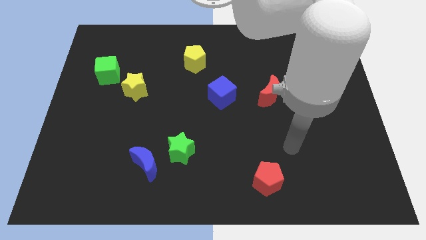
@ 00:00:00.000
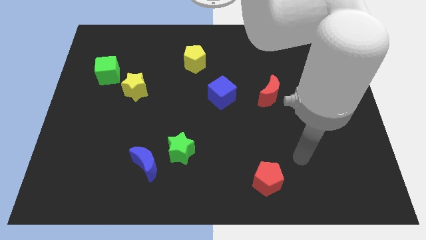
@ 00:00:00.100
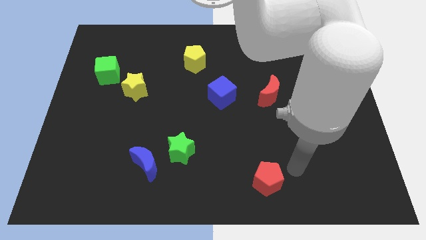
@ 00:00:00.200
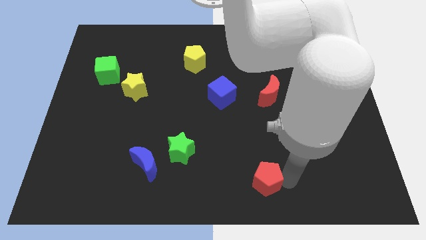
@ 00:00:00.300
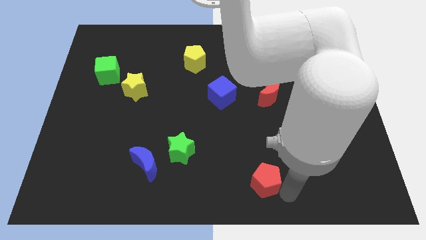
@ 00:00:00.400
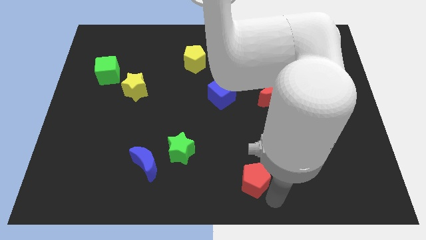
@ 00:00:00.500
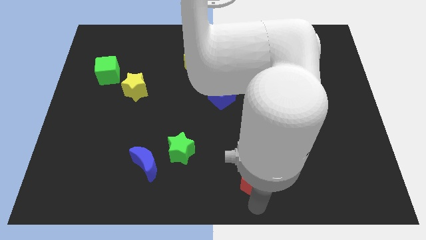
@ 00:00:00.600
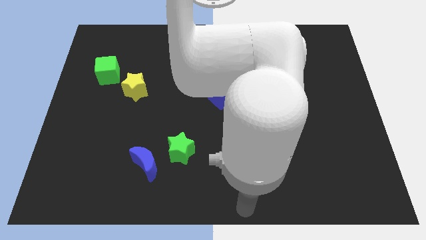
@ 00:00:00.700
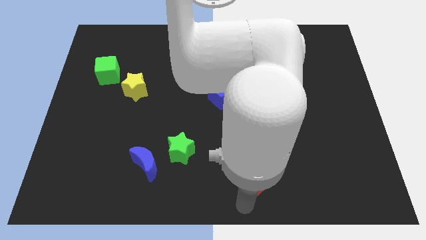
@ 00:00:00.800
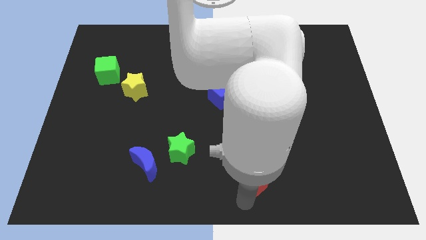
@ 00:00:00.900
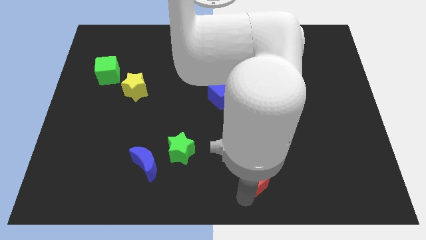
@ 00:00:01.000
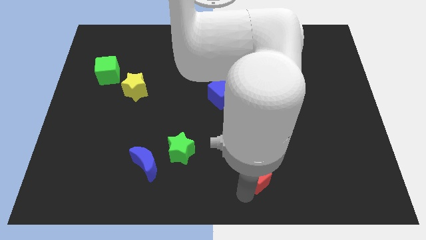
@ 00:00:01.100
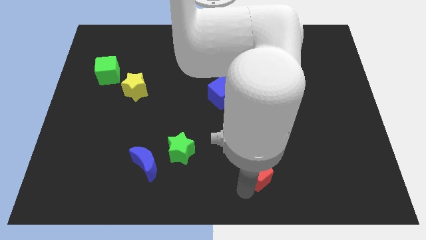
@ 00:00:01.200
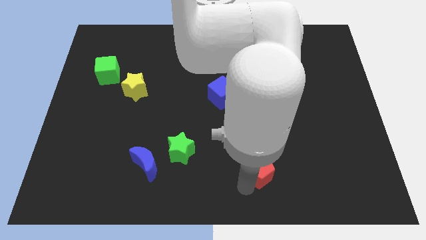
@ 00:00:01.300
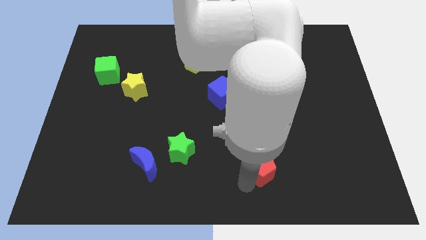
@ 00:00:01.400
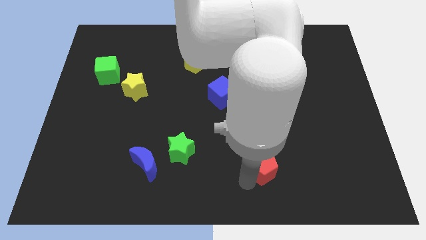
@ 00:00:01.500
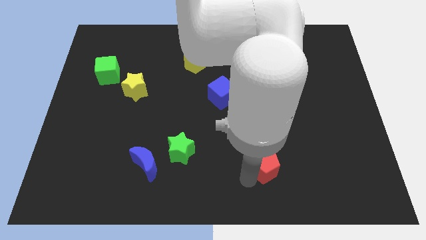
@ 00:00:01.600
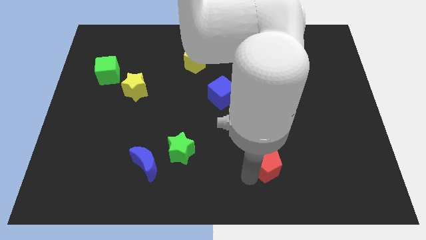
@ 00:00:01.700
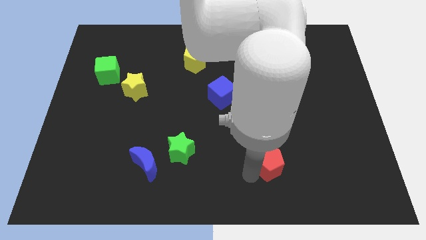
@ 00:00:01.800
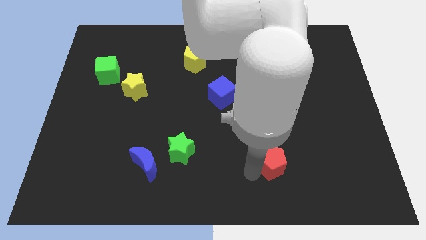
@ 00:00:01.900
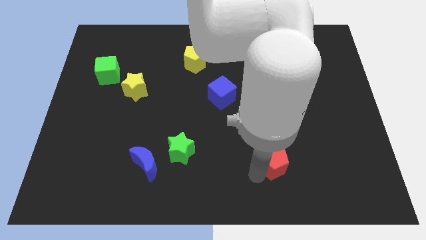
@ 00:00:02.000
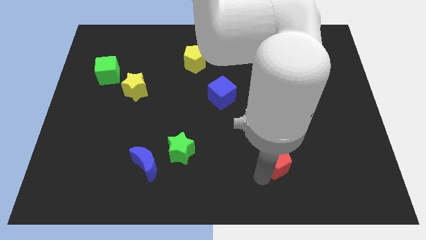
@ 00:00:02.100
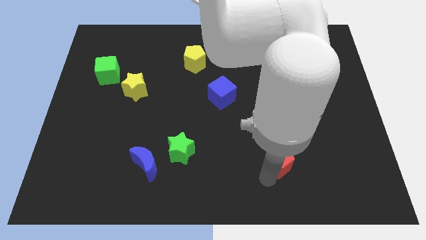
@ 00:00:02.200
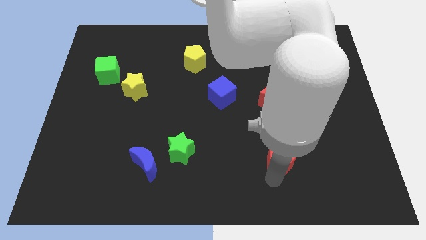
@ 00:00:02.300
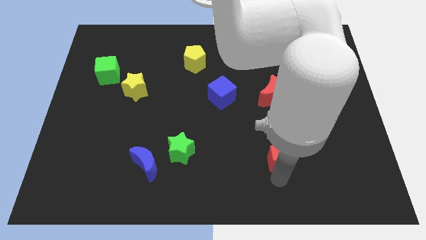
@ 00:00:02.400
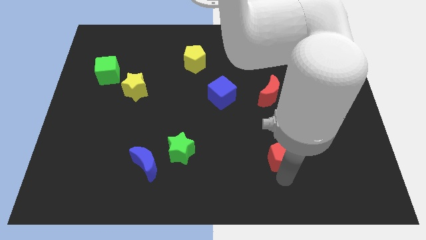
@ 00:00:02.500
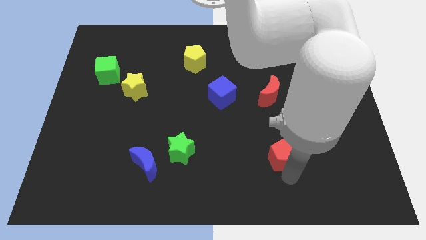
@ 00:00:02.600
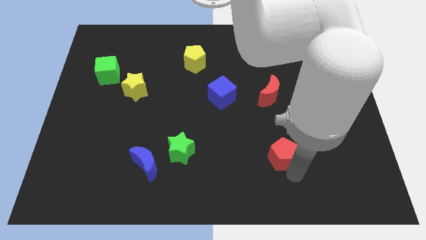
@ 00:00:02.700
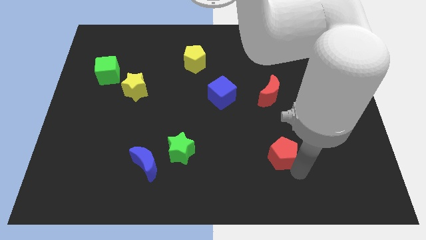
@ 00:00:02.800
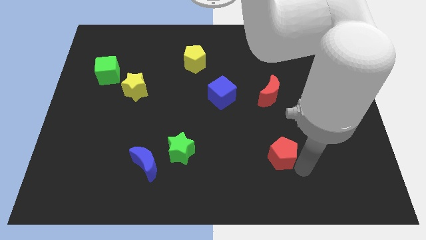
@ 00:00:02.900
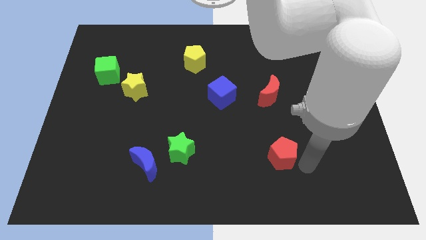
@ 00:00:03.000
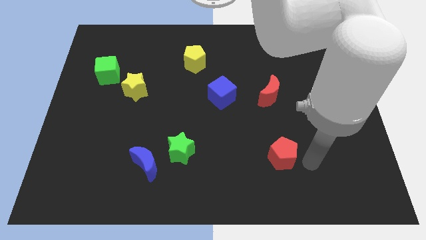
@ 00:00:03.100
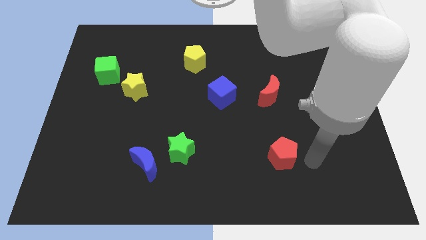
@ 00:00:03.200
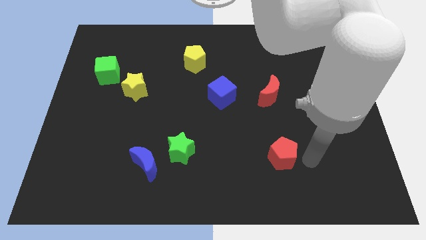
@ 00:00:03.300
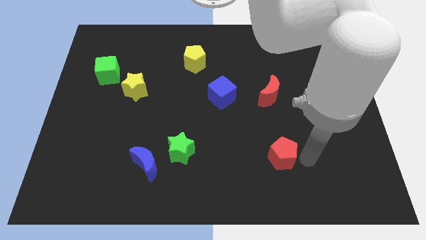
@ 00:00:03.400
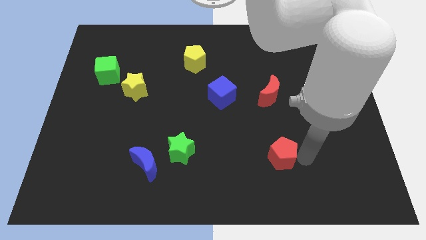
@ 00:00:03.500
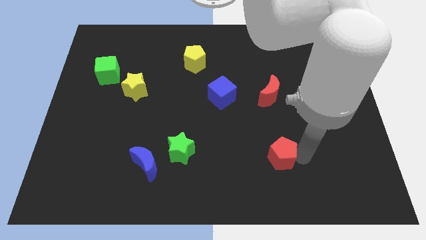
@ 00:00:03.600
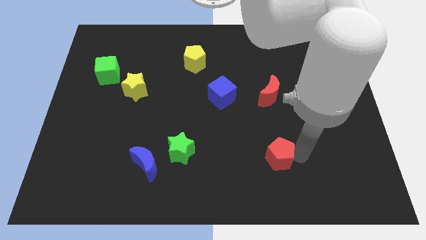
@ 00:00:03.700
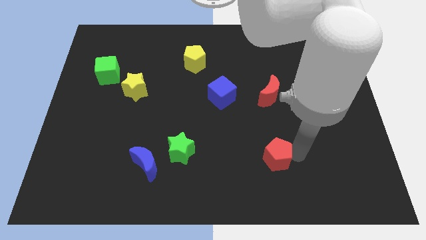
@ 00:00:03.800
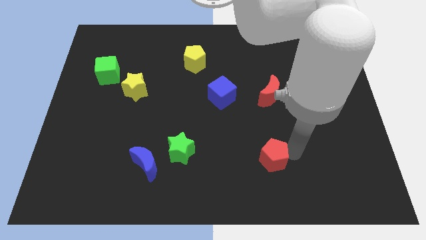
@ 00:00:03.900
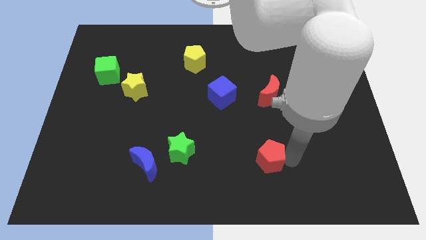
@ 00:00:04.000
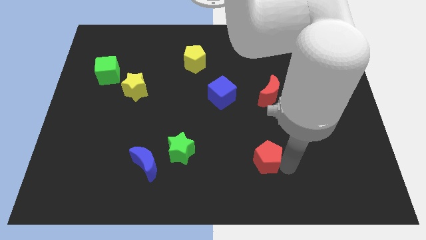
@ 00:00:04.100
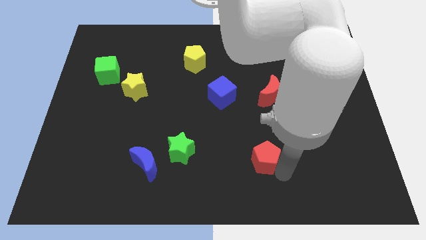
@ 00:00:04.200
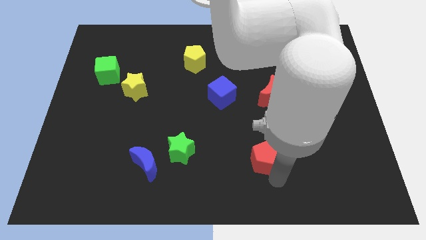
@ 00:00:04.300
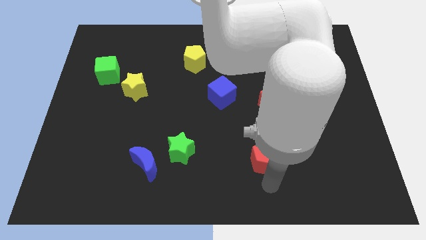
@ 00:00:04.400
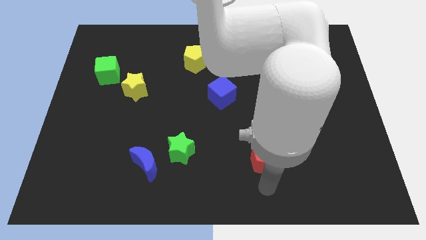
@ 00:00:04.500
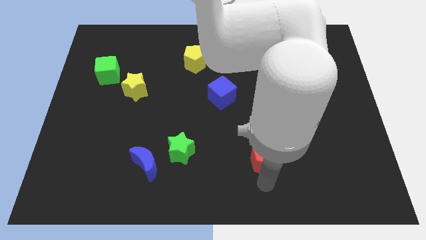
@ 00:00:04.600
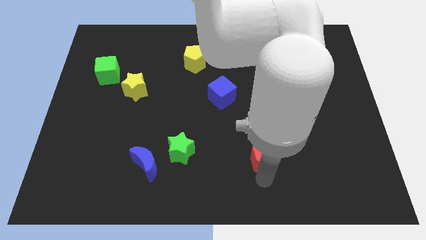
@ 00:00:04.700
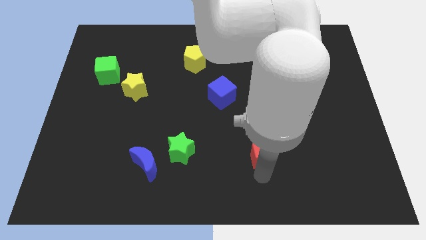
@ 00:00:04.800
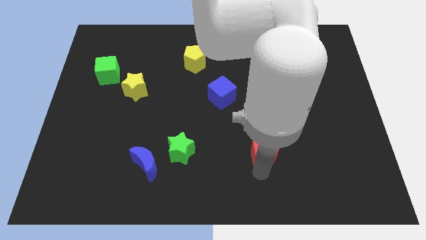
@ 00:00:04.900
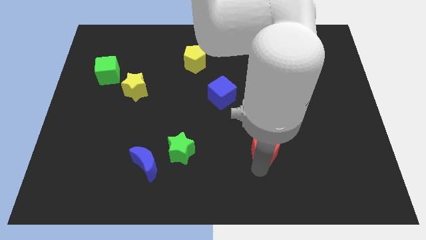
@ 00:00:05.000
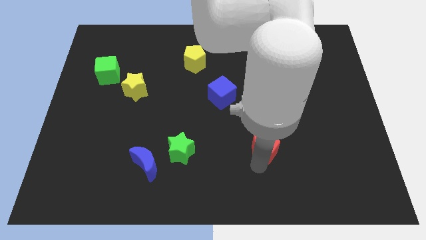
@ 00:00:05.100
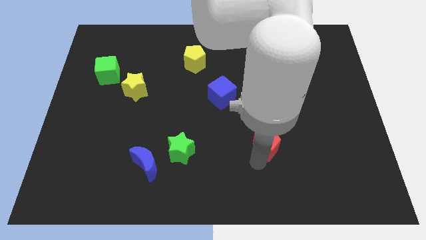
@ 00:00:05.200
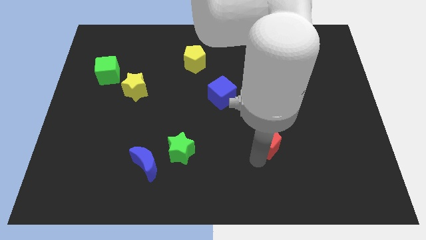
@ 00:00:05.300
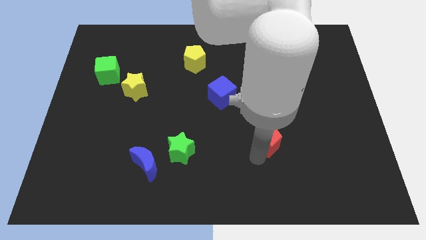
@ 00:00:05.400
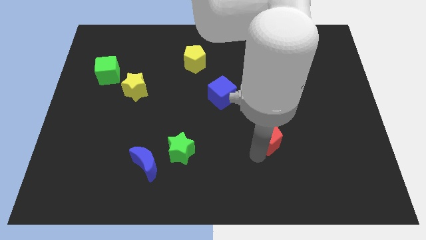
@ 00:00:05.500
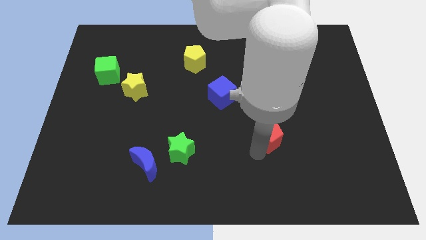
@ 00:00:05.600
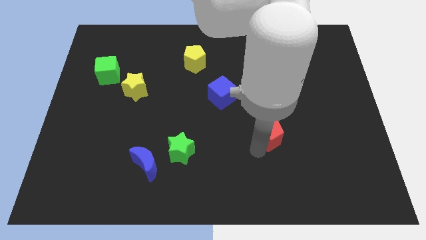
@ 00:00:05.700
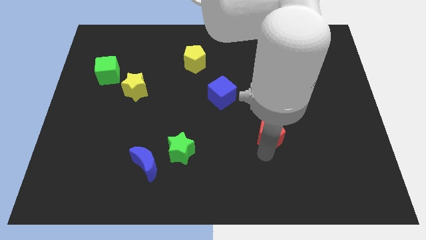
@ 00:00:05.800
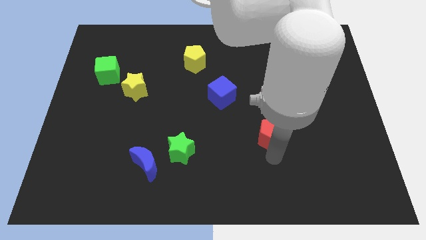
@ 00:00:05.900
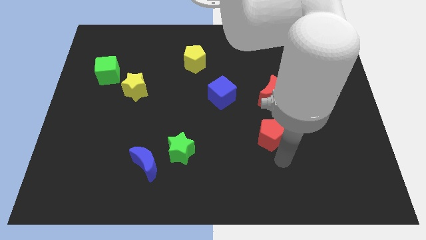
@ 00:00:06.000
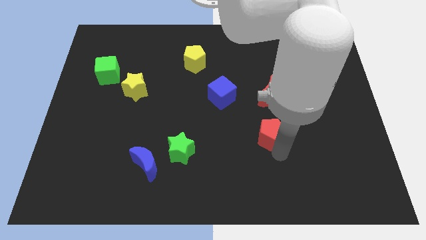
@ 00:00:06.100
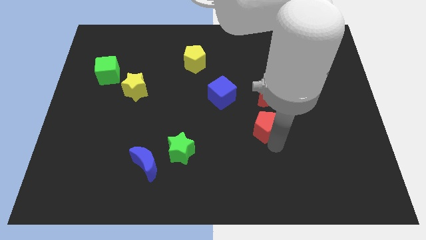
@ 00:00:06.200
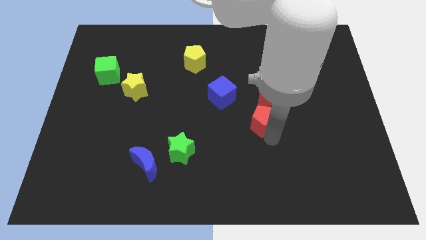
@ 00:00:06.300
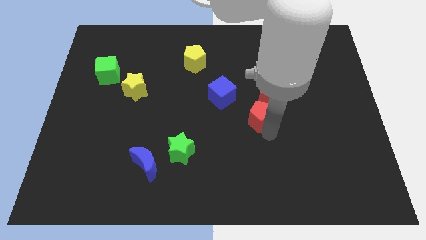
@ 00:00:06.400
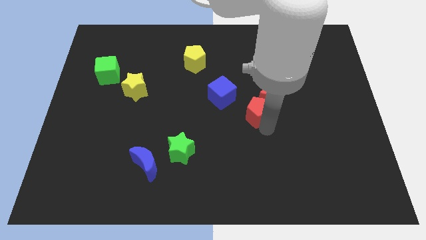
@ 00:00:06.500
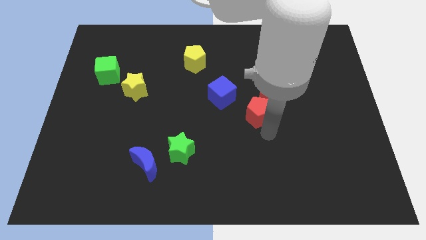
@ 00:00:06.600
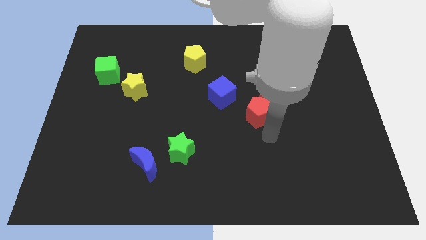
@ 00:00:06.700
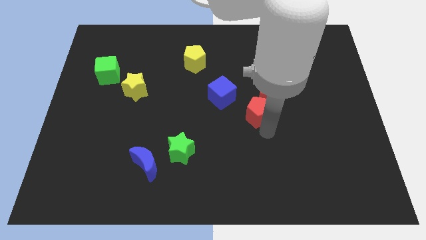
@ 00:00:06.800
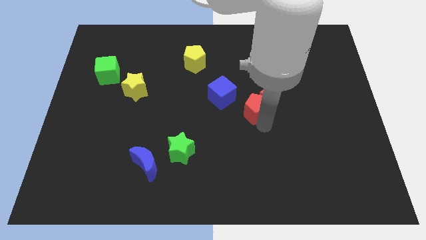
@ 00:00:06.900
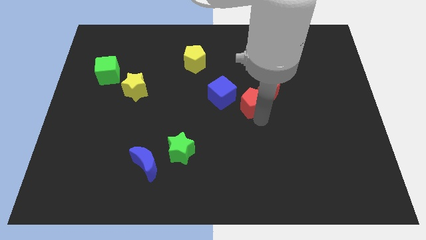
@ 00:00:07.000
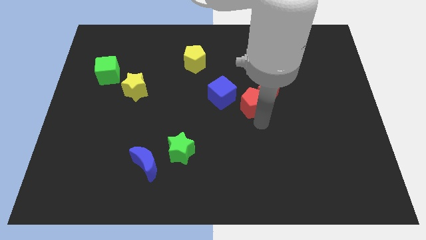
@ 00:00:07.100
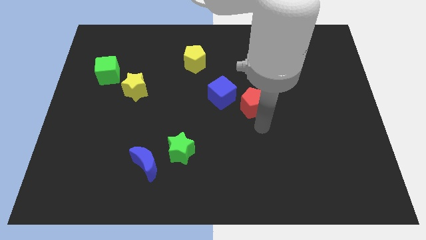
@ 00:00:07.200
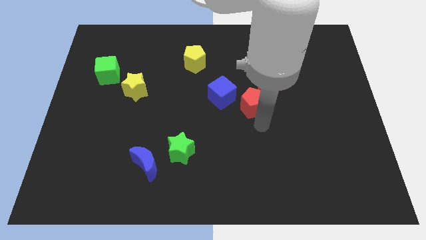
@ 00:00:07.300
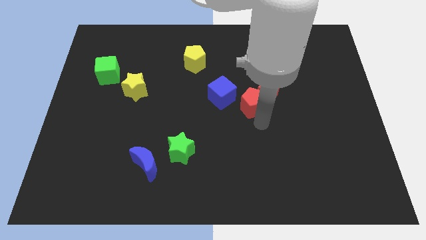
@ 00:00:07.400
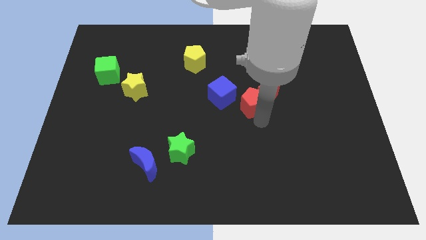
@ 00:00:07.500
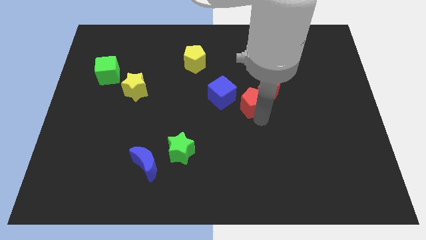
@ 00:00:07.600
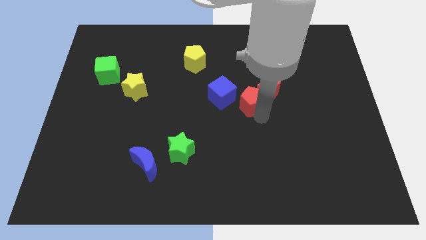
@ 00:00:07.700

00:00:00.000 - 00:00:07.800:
push the red pentagon upwards

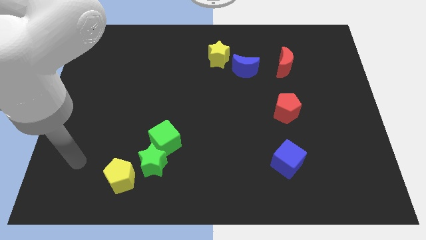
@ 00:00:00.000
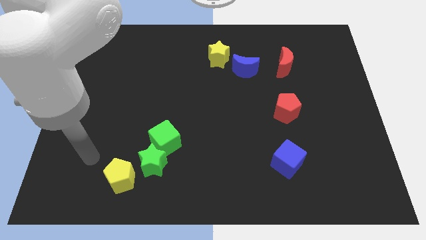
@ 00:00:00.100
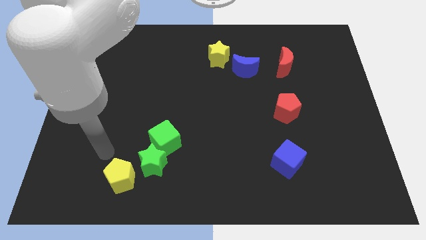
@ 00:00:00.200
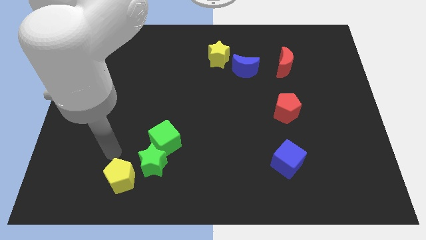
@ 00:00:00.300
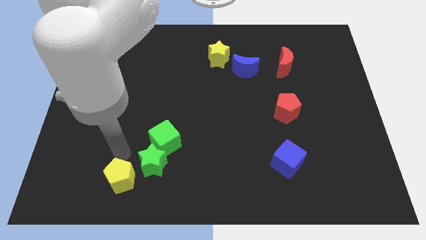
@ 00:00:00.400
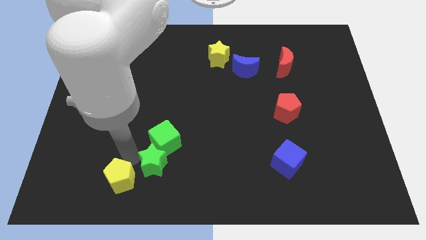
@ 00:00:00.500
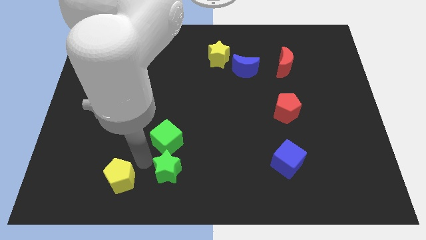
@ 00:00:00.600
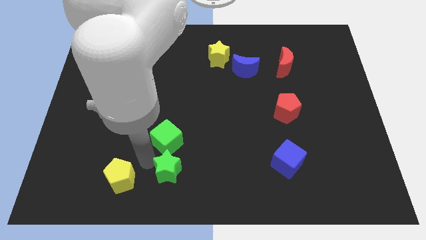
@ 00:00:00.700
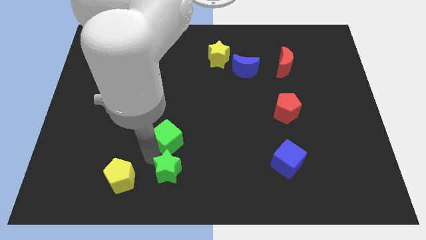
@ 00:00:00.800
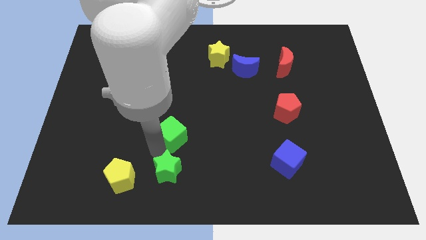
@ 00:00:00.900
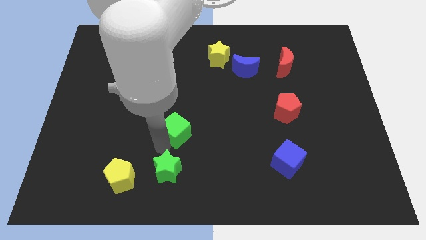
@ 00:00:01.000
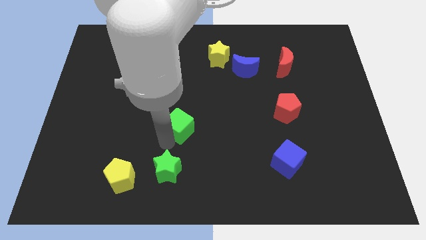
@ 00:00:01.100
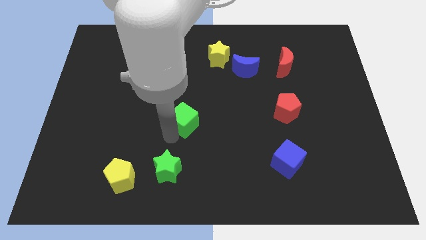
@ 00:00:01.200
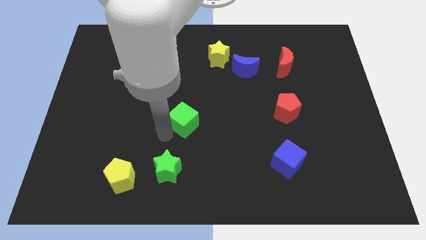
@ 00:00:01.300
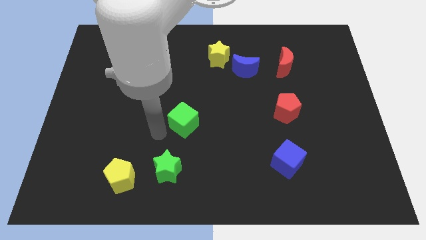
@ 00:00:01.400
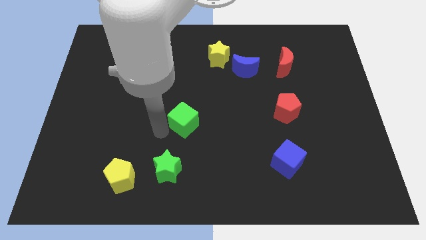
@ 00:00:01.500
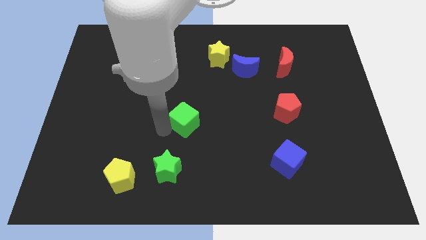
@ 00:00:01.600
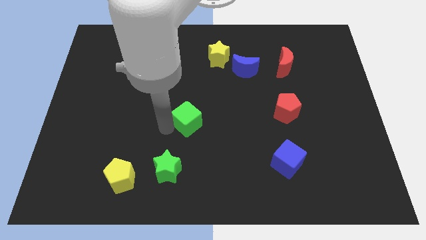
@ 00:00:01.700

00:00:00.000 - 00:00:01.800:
slightly push the green cube up and to the right diagonally
